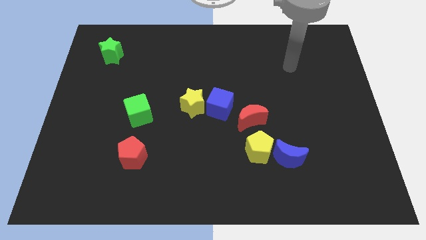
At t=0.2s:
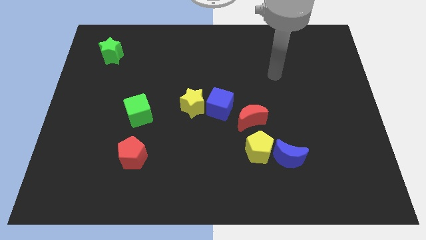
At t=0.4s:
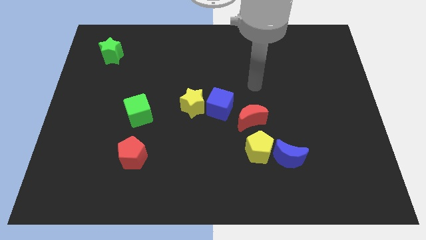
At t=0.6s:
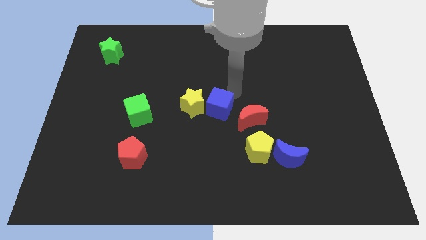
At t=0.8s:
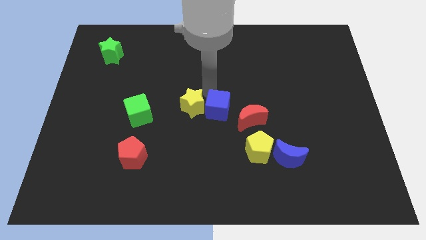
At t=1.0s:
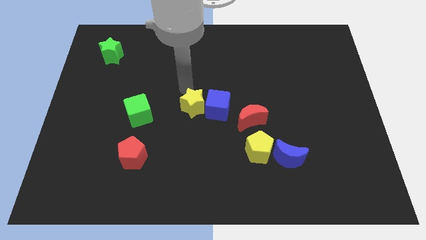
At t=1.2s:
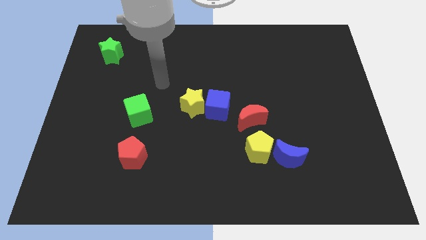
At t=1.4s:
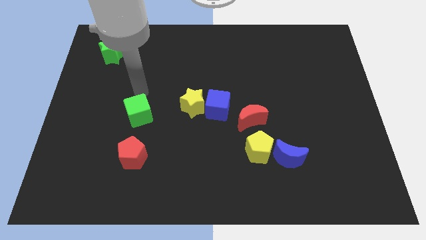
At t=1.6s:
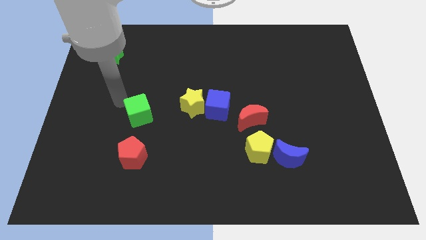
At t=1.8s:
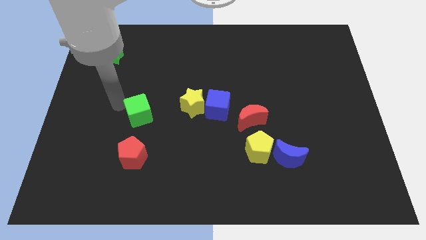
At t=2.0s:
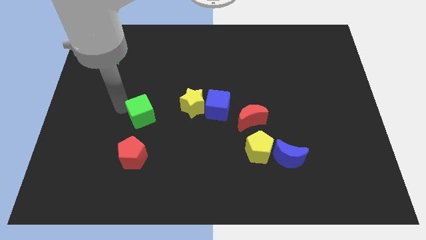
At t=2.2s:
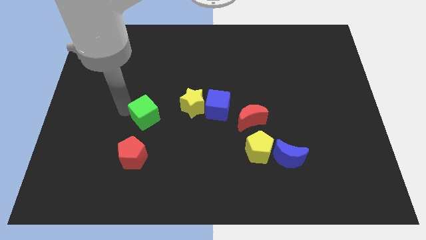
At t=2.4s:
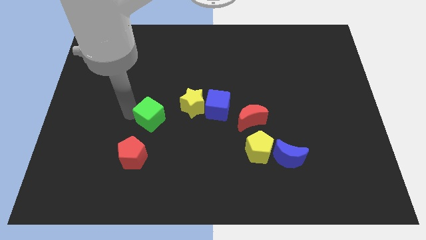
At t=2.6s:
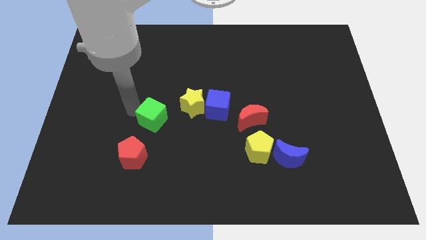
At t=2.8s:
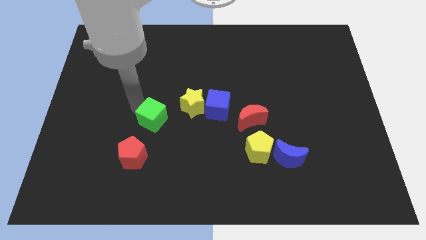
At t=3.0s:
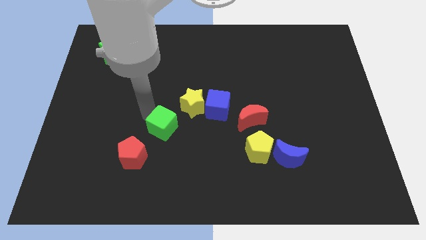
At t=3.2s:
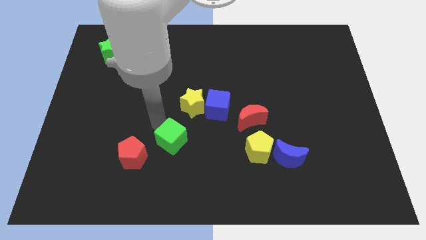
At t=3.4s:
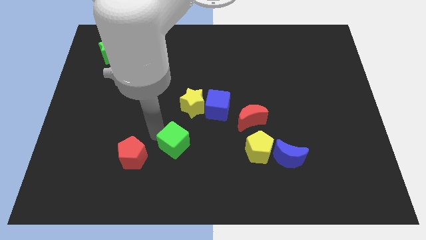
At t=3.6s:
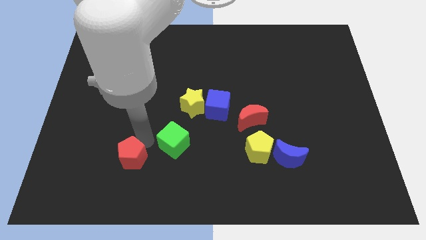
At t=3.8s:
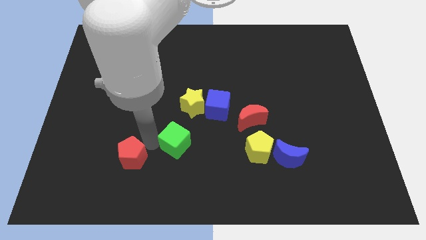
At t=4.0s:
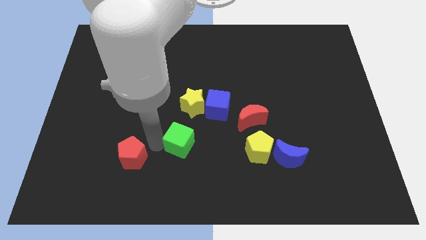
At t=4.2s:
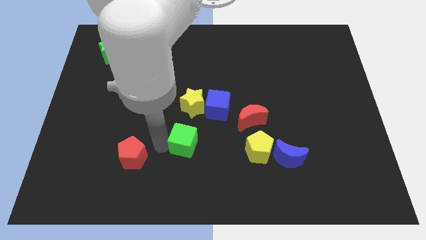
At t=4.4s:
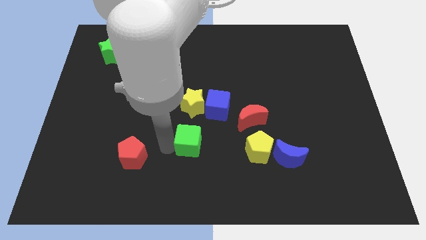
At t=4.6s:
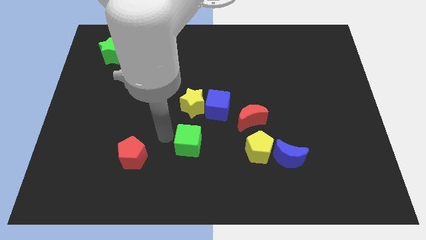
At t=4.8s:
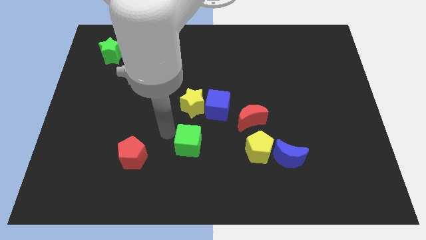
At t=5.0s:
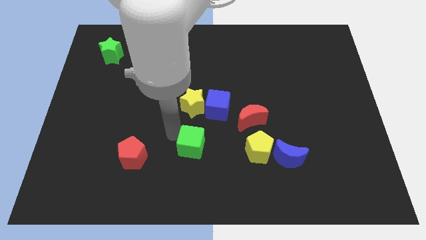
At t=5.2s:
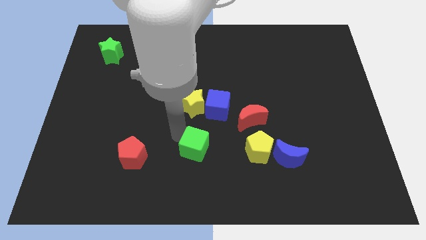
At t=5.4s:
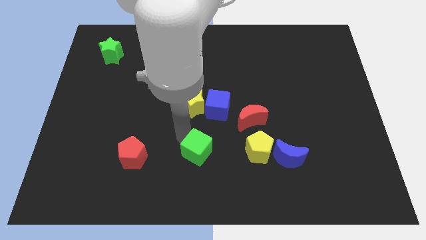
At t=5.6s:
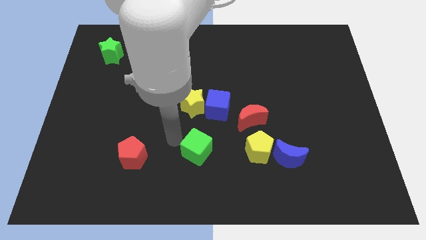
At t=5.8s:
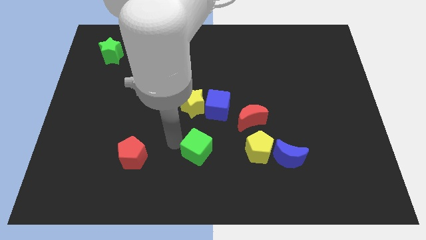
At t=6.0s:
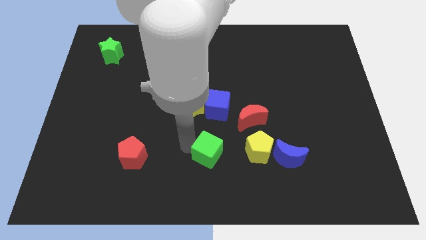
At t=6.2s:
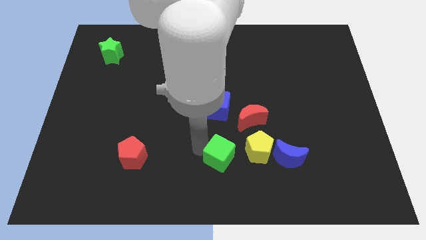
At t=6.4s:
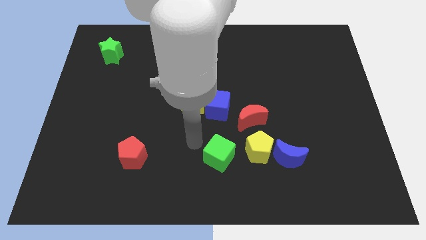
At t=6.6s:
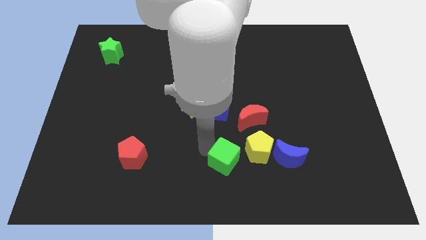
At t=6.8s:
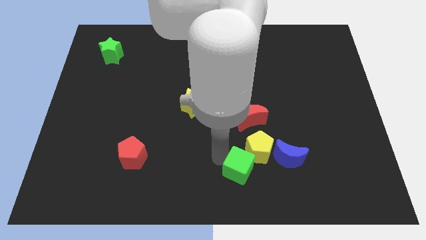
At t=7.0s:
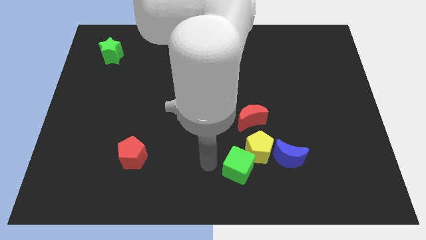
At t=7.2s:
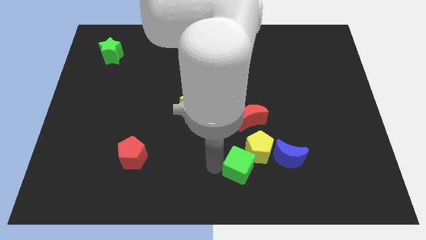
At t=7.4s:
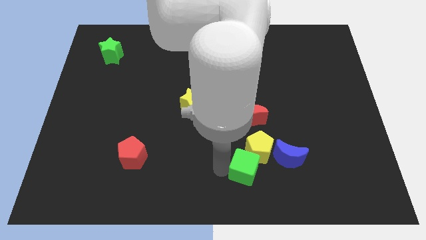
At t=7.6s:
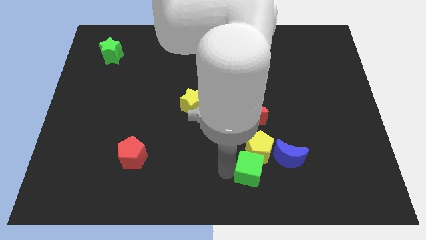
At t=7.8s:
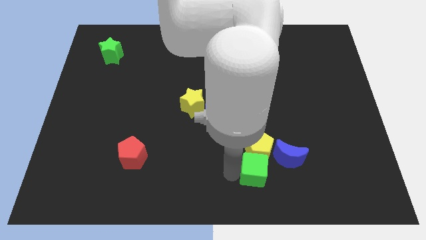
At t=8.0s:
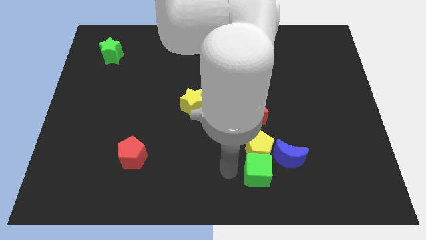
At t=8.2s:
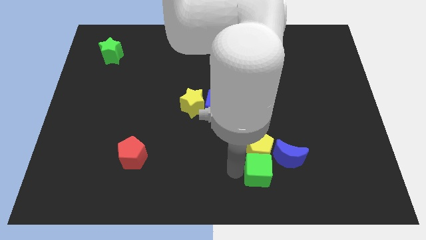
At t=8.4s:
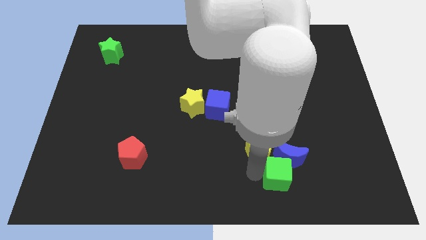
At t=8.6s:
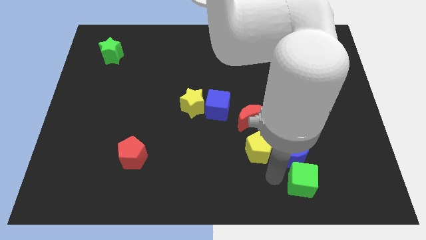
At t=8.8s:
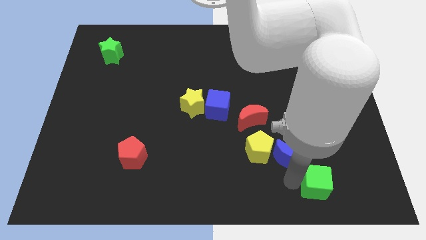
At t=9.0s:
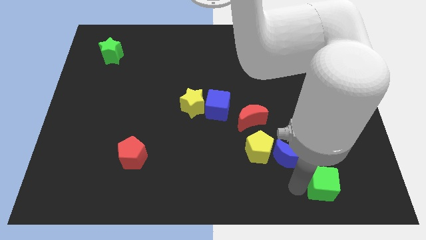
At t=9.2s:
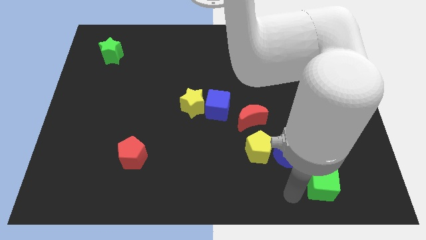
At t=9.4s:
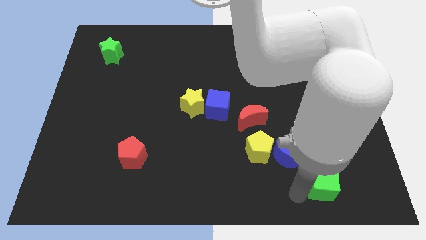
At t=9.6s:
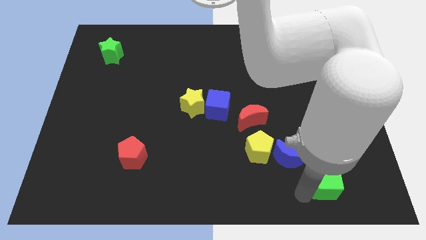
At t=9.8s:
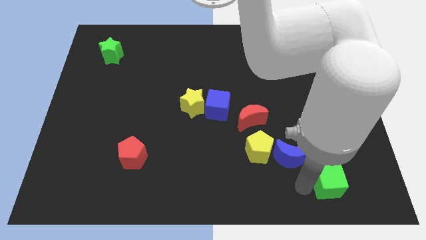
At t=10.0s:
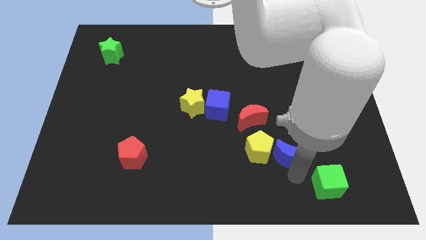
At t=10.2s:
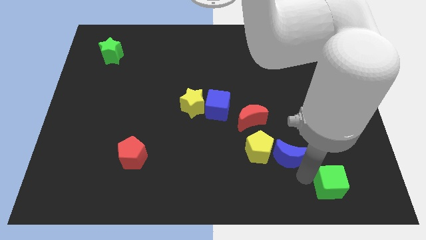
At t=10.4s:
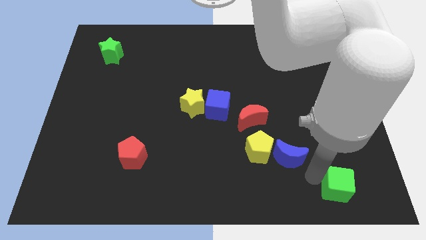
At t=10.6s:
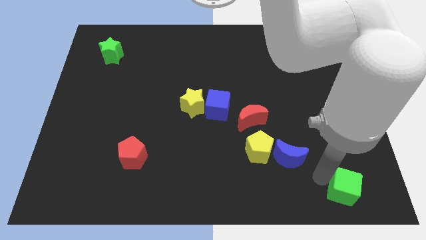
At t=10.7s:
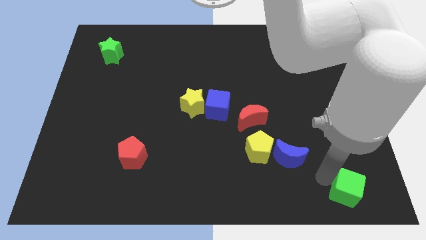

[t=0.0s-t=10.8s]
push the green cube to the bottom right corner

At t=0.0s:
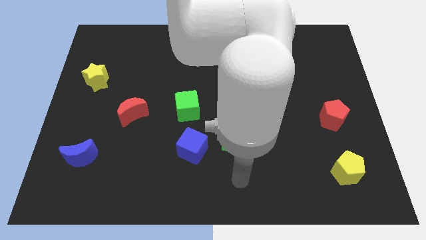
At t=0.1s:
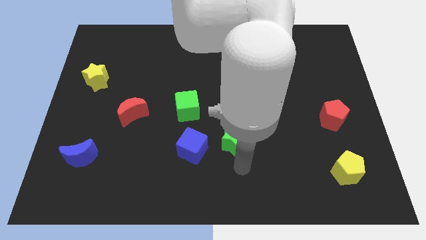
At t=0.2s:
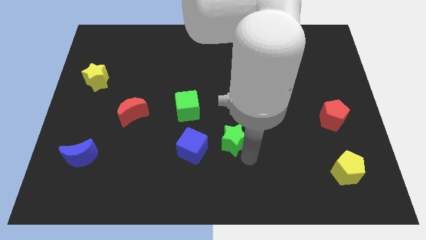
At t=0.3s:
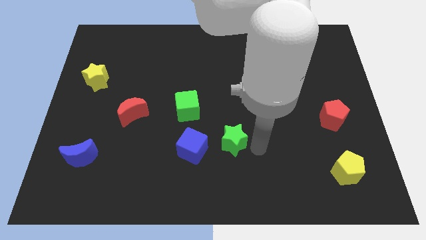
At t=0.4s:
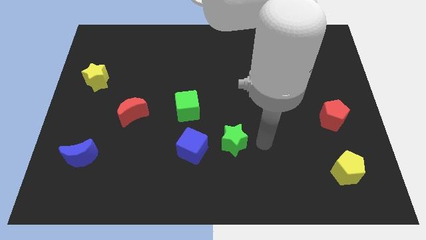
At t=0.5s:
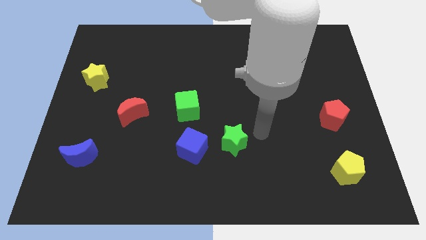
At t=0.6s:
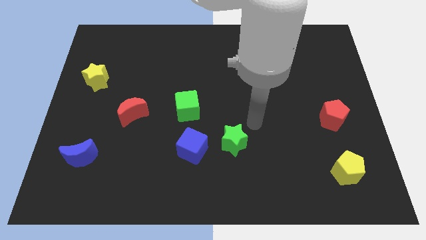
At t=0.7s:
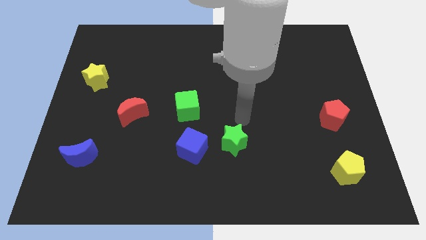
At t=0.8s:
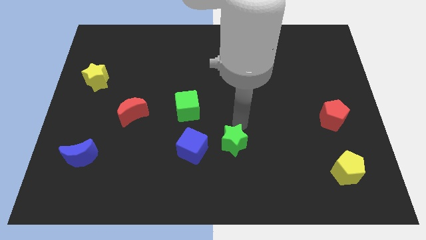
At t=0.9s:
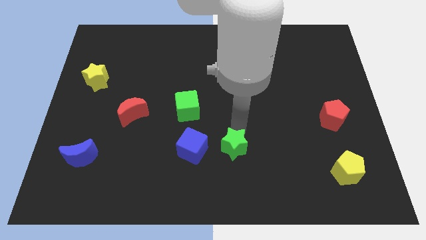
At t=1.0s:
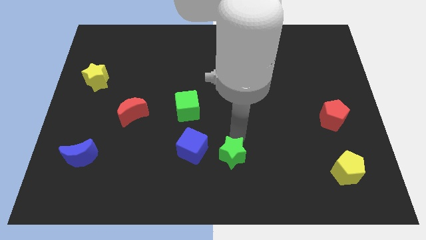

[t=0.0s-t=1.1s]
move the green star to the bottom side
